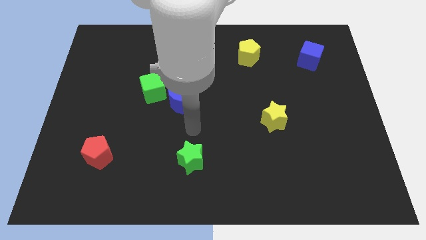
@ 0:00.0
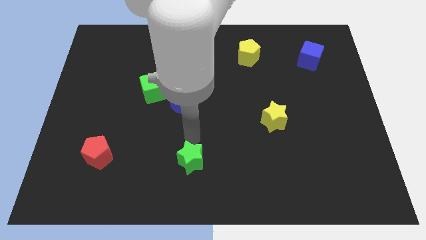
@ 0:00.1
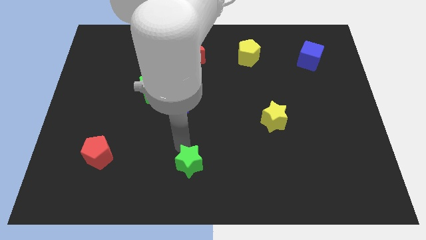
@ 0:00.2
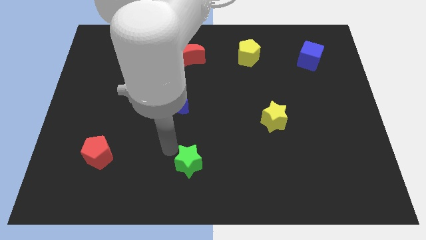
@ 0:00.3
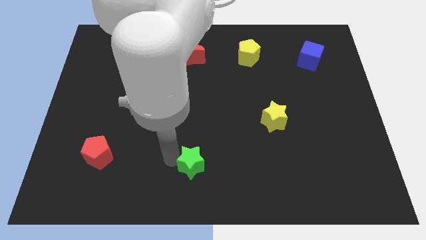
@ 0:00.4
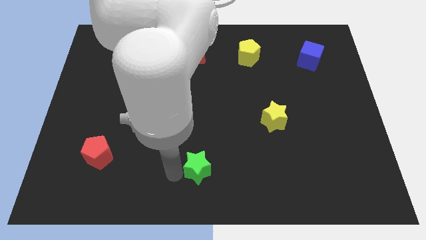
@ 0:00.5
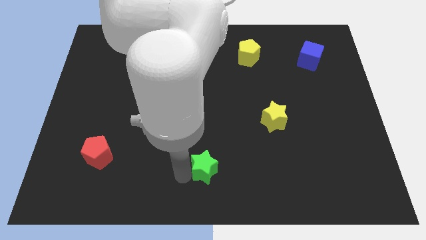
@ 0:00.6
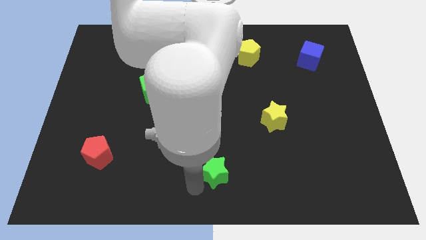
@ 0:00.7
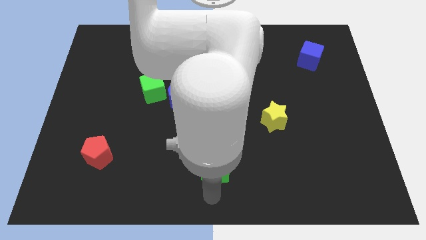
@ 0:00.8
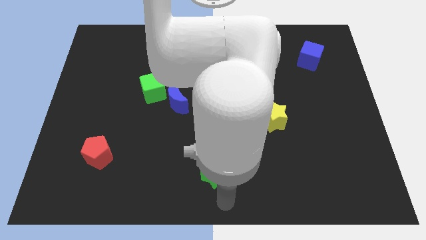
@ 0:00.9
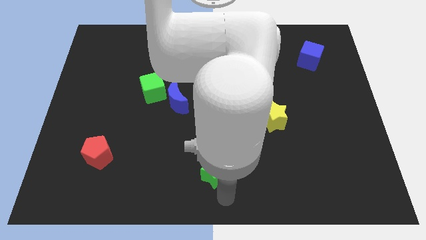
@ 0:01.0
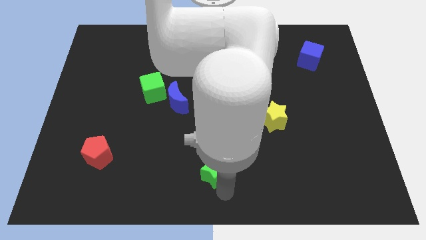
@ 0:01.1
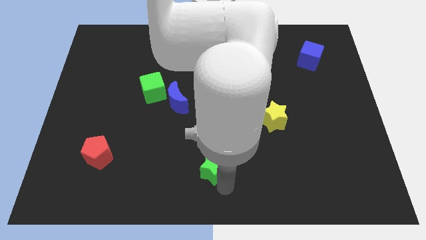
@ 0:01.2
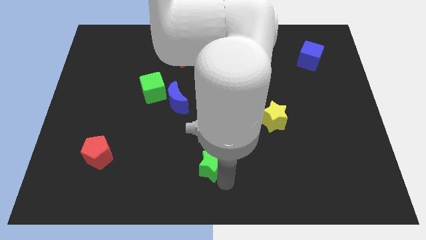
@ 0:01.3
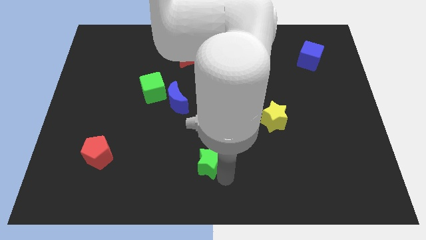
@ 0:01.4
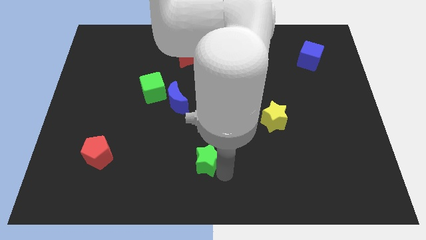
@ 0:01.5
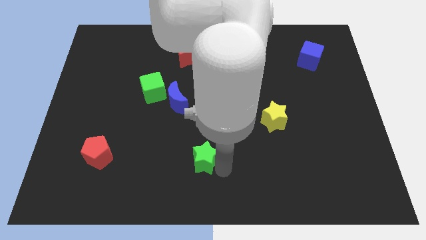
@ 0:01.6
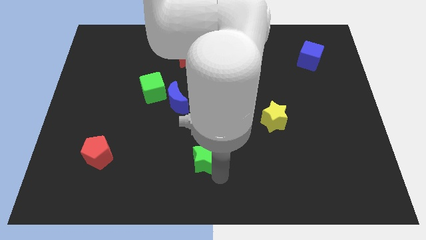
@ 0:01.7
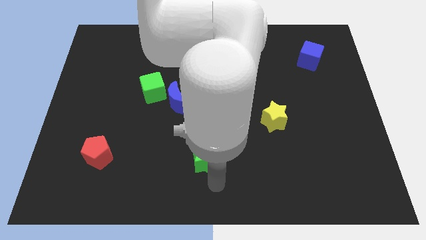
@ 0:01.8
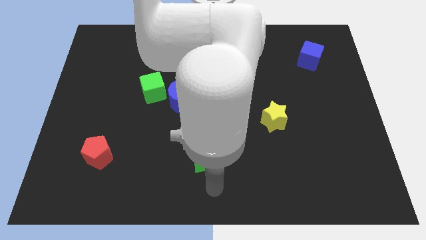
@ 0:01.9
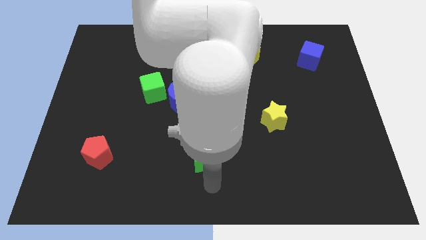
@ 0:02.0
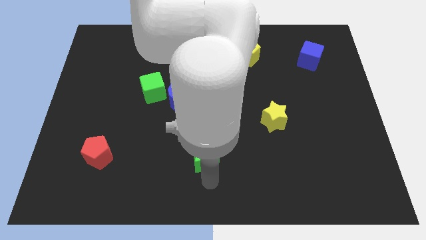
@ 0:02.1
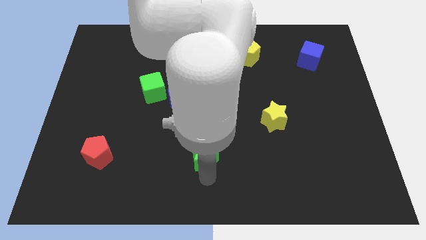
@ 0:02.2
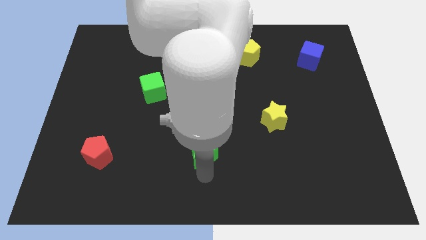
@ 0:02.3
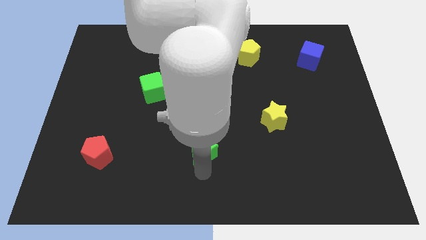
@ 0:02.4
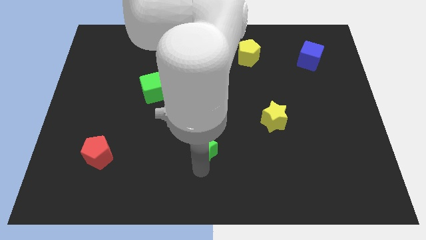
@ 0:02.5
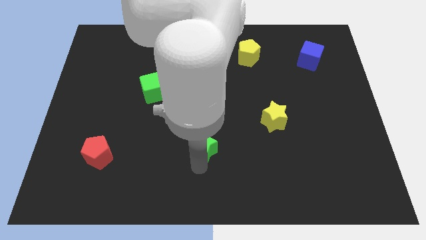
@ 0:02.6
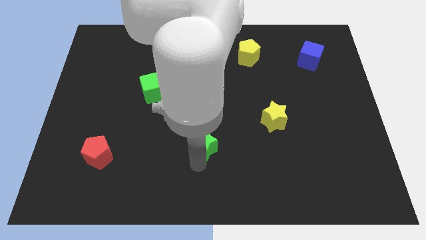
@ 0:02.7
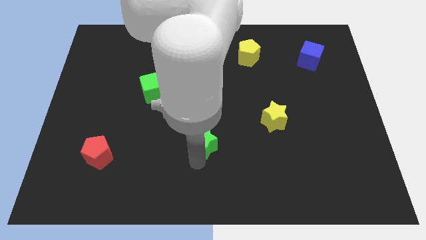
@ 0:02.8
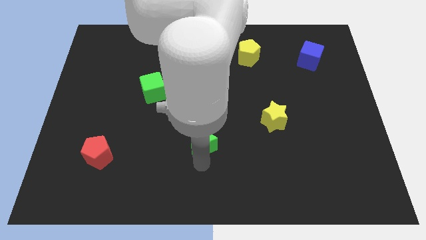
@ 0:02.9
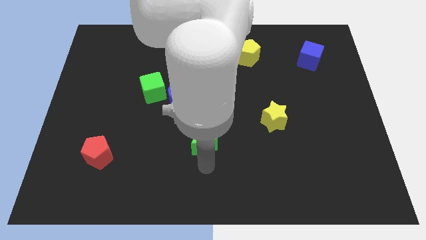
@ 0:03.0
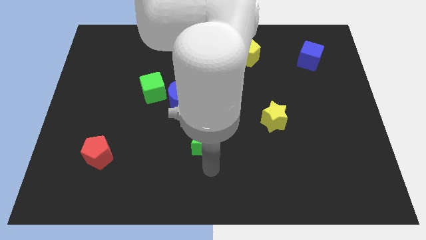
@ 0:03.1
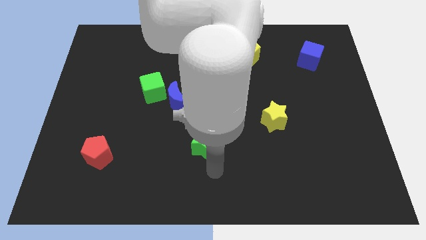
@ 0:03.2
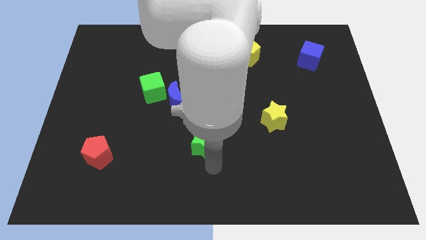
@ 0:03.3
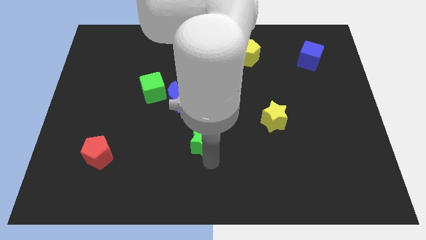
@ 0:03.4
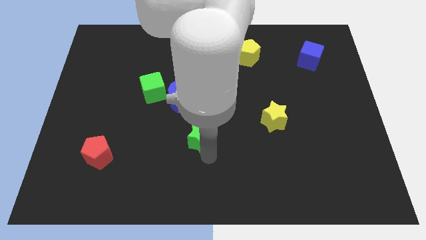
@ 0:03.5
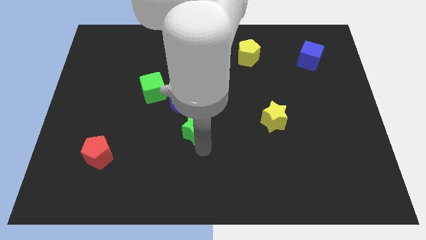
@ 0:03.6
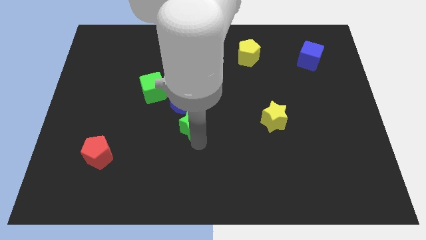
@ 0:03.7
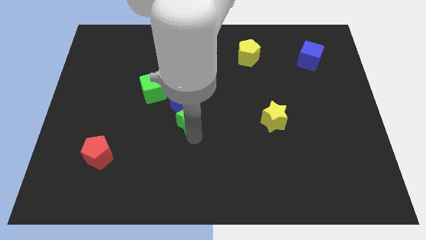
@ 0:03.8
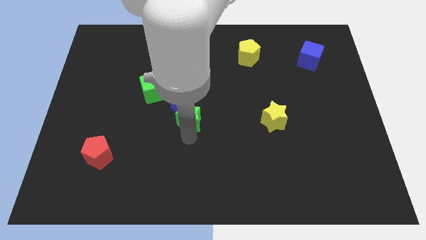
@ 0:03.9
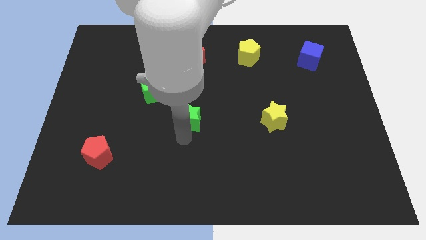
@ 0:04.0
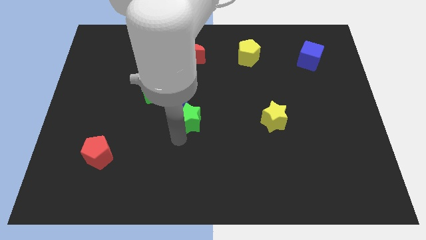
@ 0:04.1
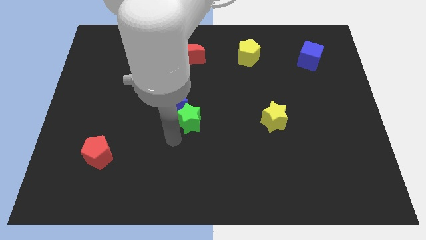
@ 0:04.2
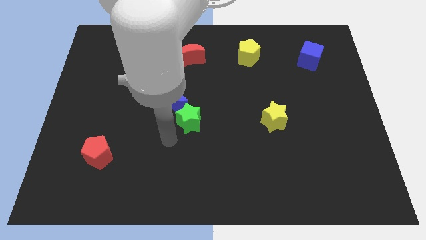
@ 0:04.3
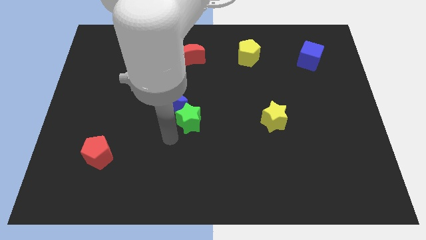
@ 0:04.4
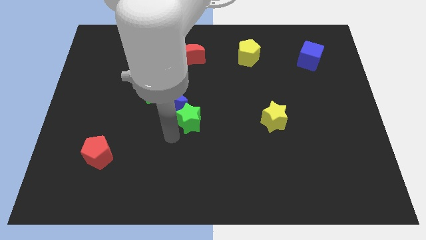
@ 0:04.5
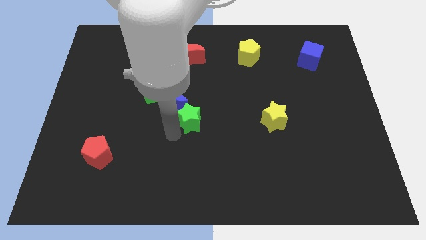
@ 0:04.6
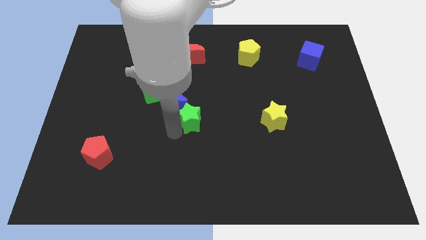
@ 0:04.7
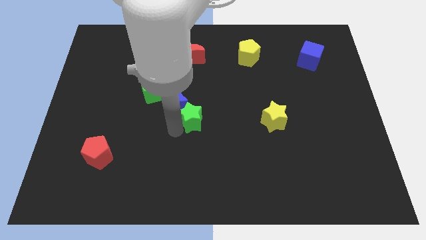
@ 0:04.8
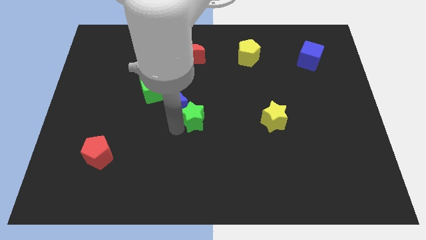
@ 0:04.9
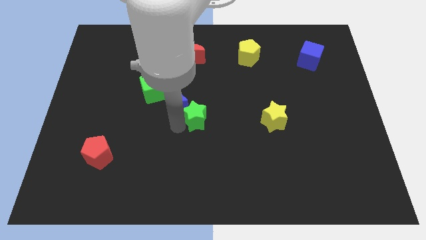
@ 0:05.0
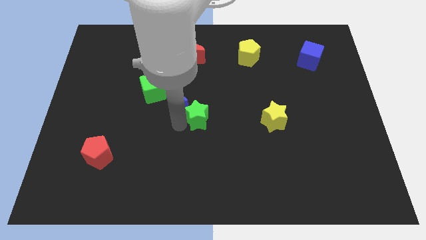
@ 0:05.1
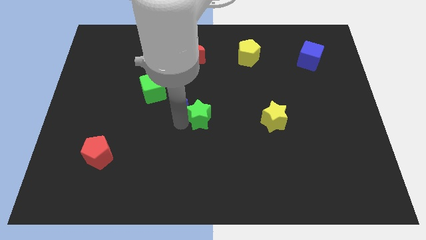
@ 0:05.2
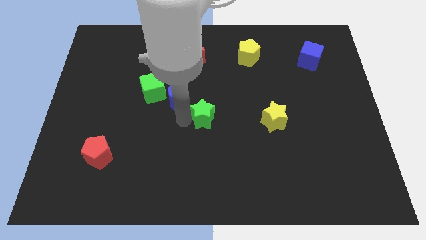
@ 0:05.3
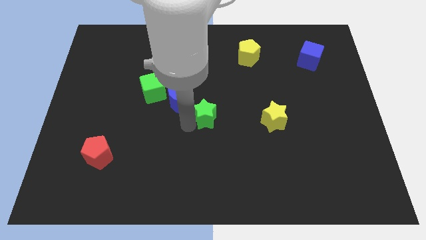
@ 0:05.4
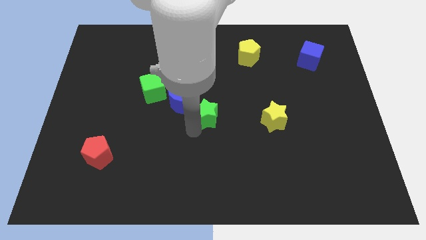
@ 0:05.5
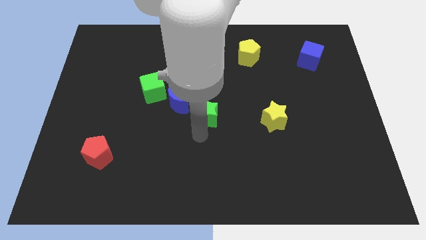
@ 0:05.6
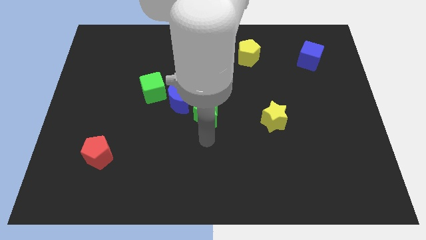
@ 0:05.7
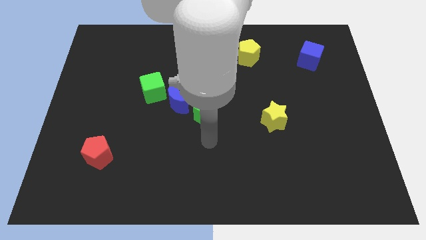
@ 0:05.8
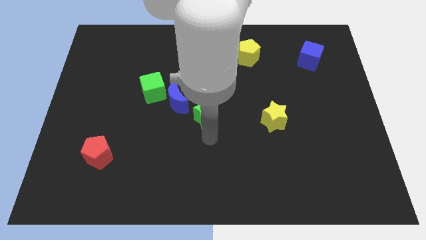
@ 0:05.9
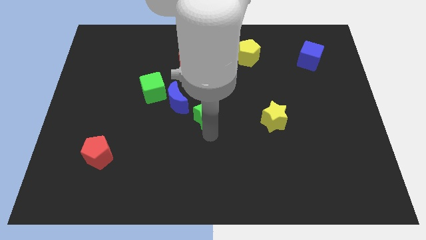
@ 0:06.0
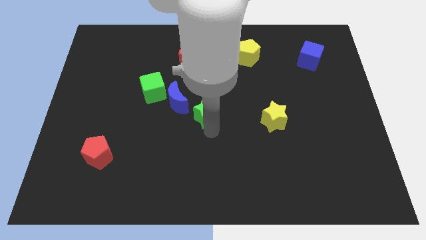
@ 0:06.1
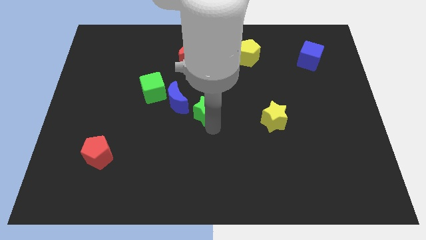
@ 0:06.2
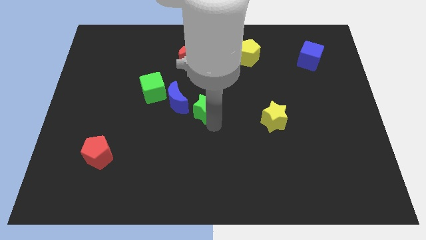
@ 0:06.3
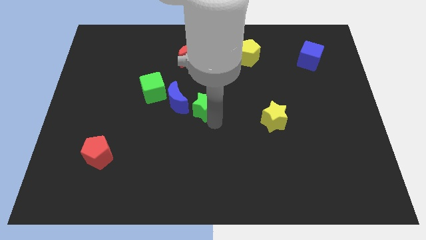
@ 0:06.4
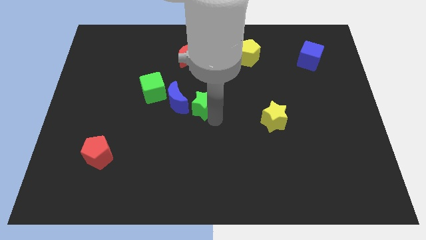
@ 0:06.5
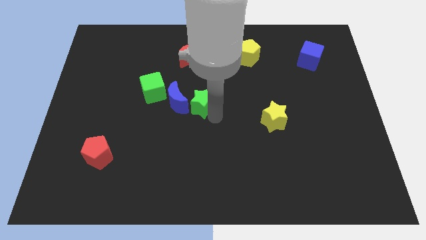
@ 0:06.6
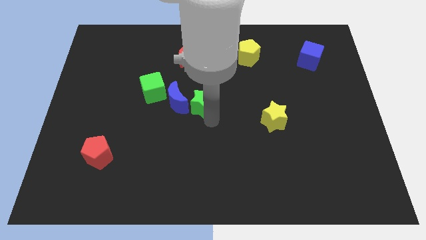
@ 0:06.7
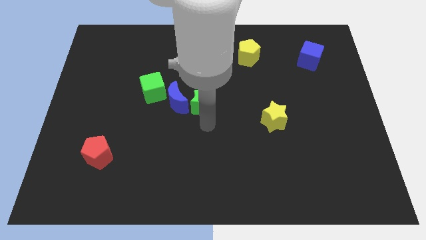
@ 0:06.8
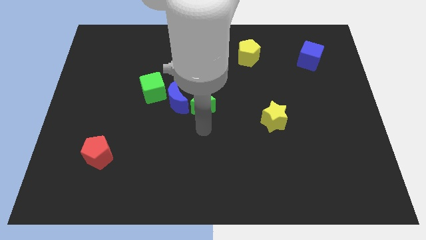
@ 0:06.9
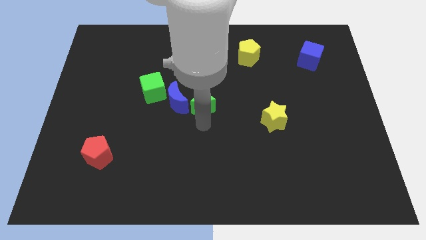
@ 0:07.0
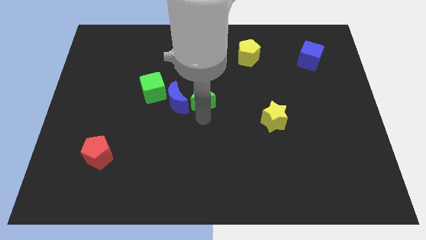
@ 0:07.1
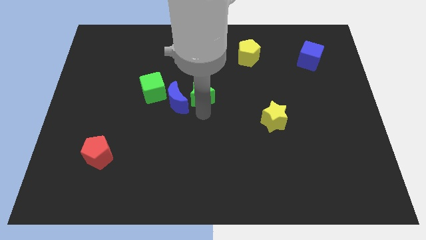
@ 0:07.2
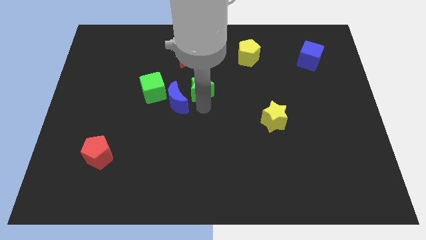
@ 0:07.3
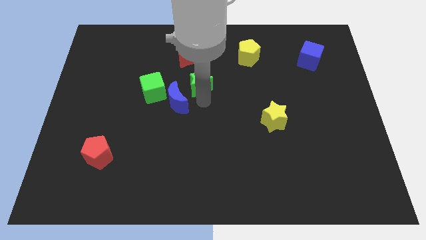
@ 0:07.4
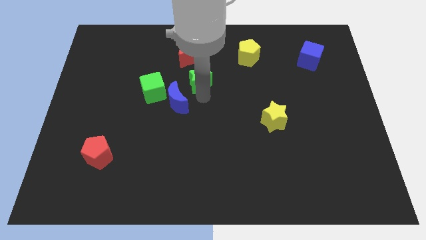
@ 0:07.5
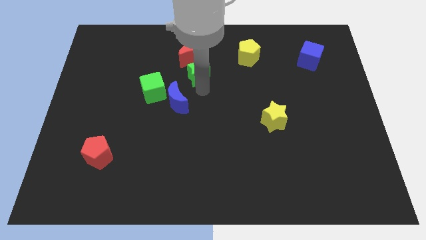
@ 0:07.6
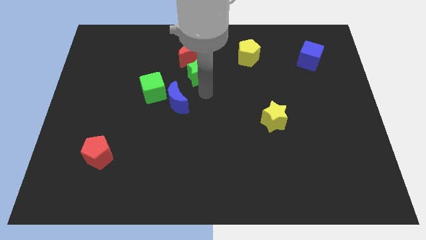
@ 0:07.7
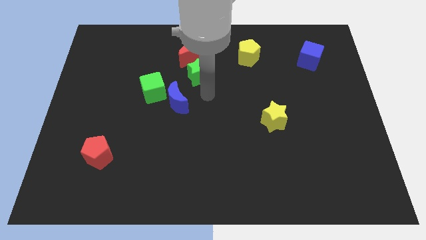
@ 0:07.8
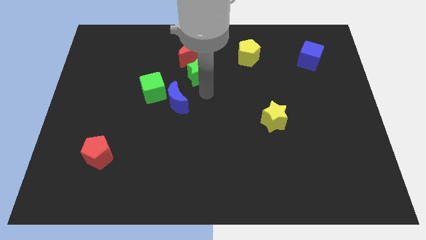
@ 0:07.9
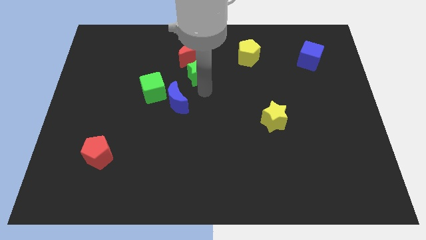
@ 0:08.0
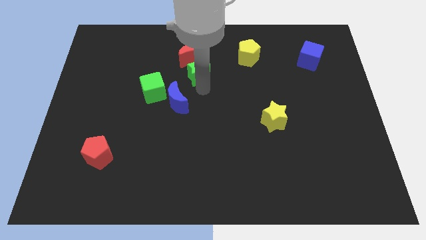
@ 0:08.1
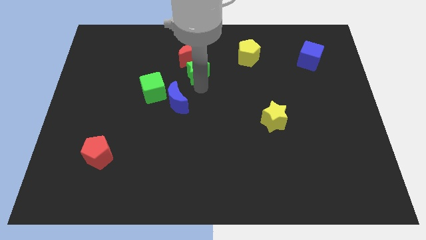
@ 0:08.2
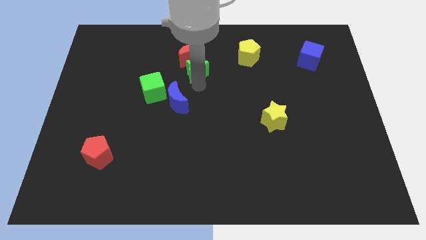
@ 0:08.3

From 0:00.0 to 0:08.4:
move the green star close to the red moon
